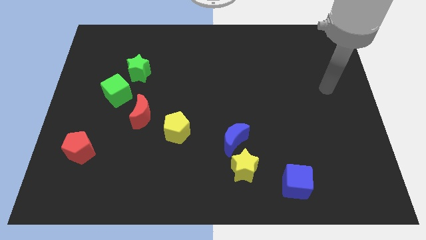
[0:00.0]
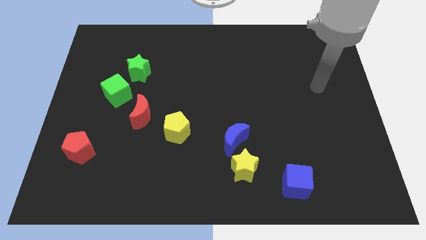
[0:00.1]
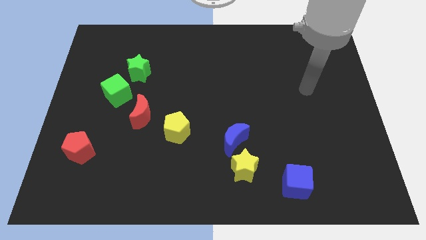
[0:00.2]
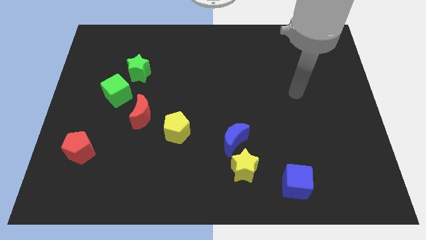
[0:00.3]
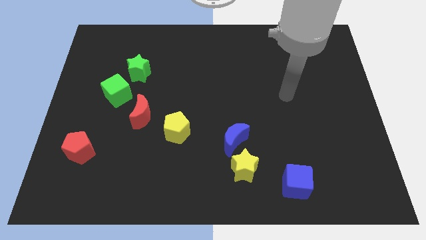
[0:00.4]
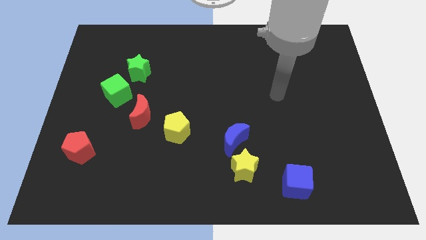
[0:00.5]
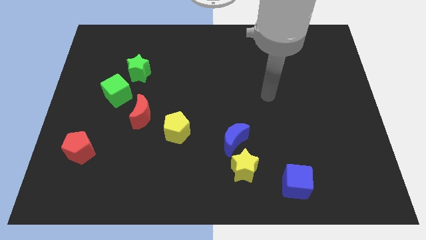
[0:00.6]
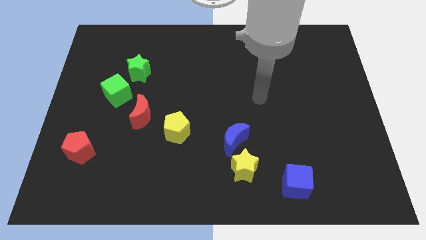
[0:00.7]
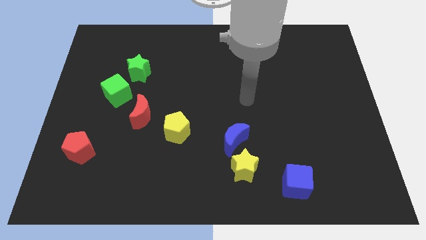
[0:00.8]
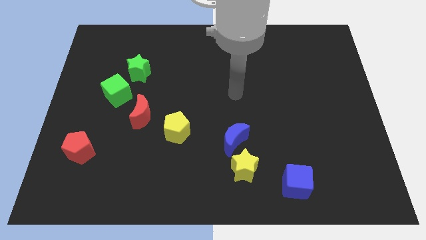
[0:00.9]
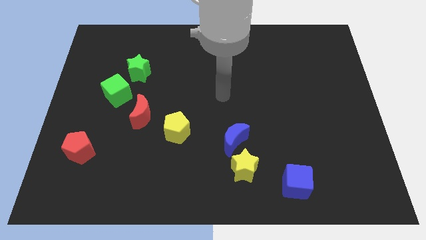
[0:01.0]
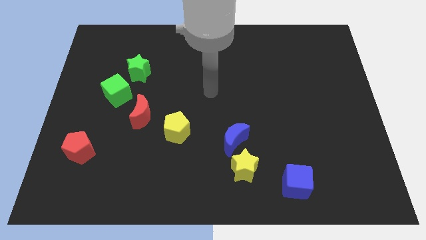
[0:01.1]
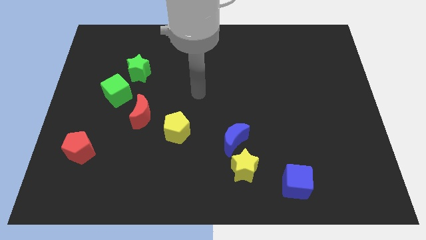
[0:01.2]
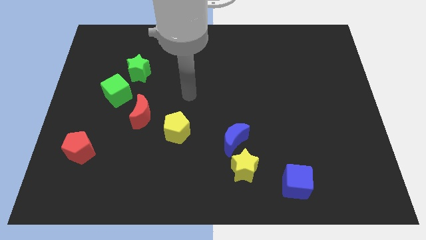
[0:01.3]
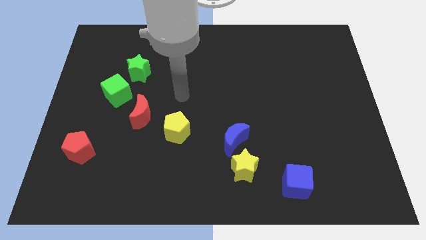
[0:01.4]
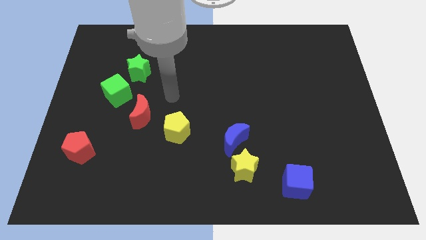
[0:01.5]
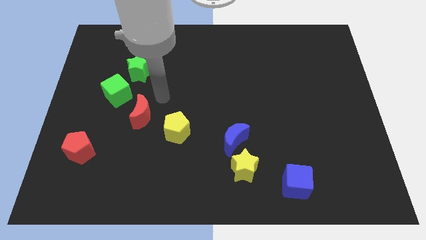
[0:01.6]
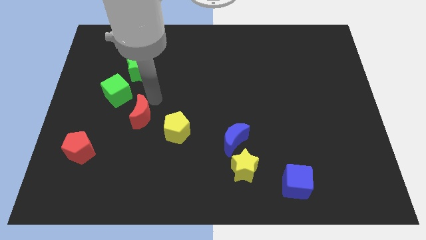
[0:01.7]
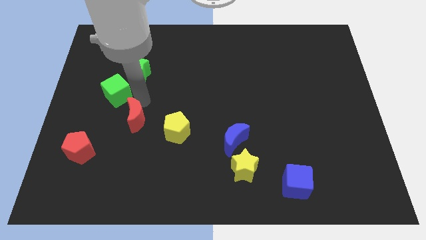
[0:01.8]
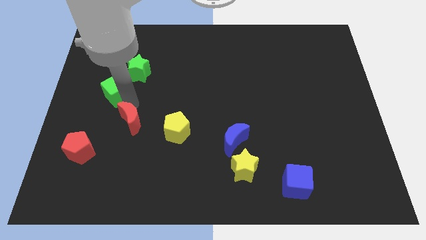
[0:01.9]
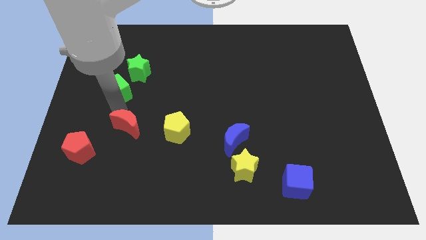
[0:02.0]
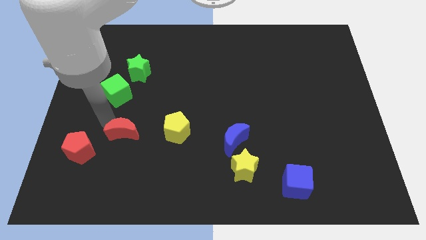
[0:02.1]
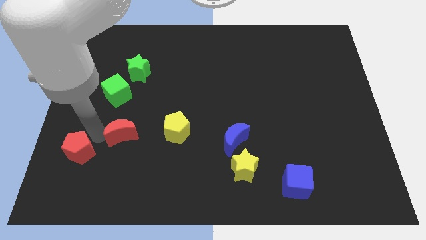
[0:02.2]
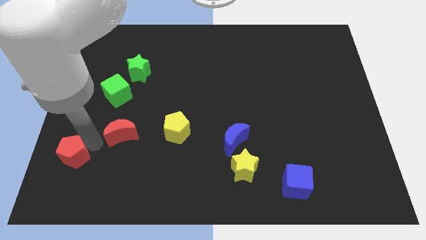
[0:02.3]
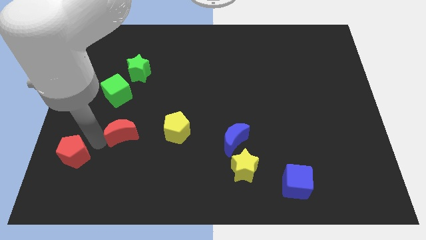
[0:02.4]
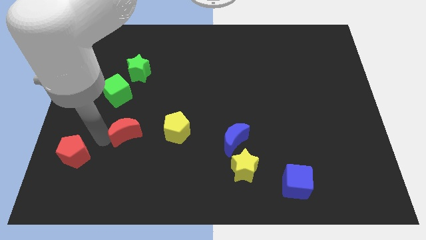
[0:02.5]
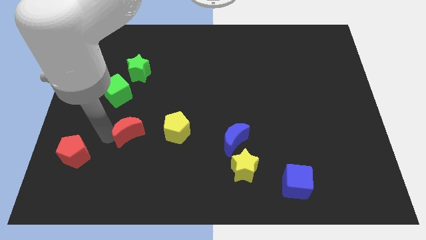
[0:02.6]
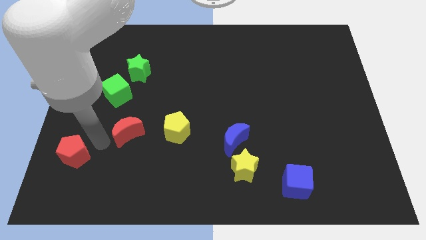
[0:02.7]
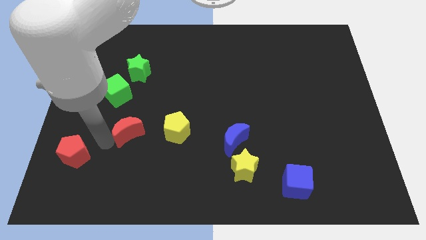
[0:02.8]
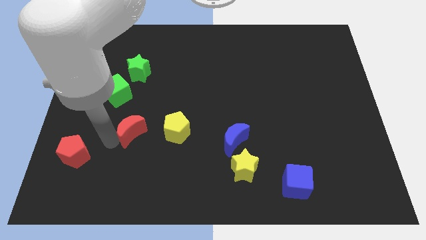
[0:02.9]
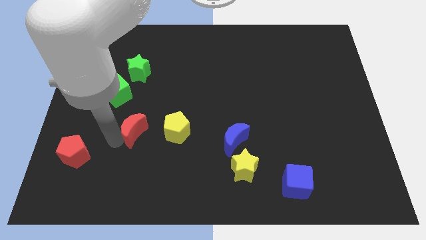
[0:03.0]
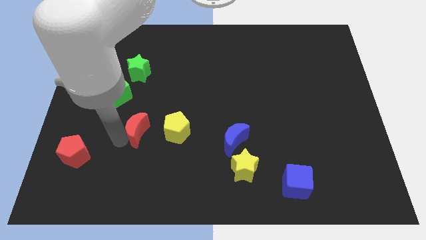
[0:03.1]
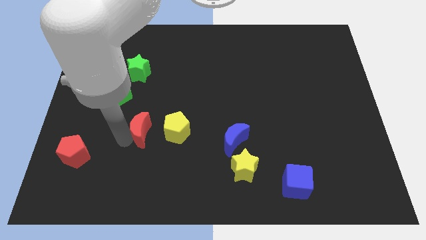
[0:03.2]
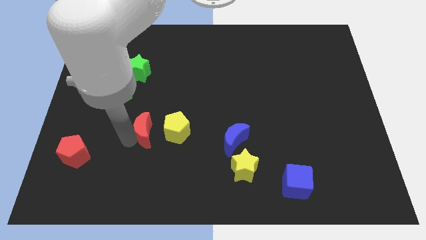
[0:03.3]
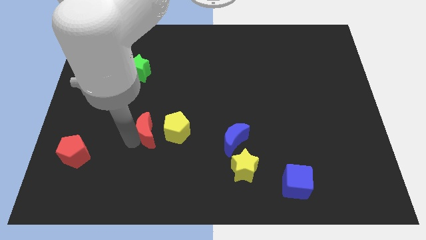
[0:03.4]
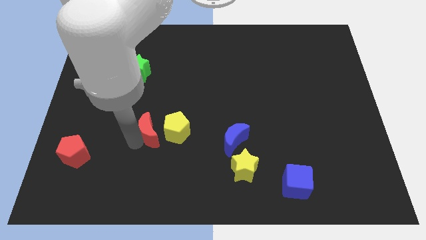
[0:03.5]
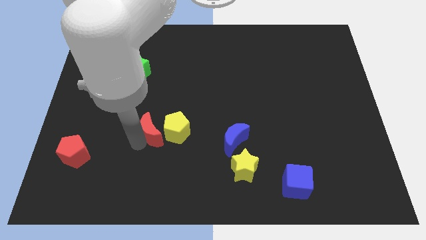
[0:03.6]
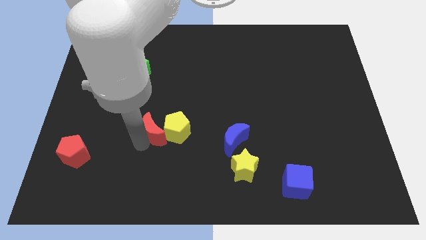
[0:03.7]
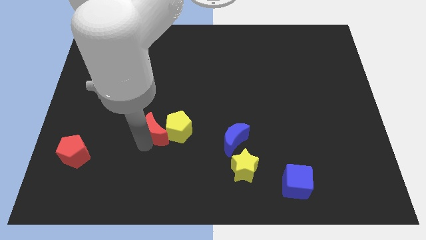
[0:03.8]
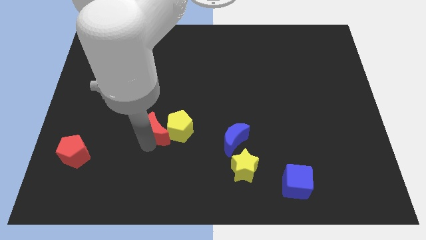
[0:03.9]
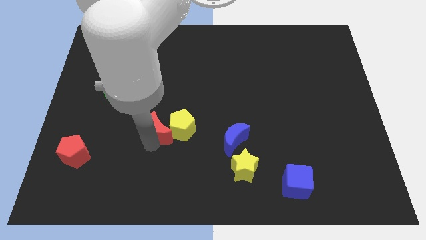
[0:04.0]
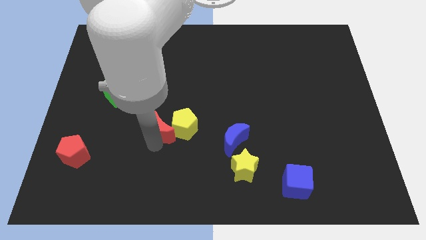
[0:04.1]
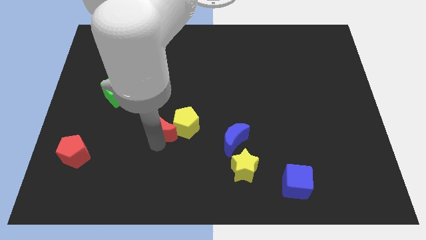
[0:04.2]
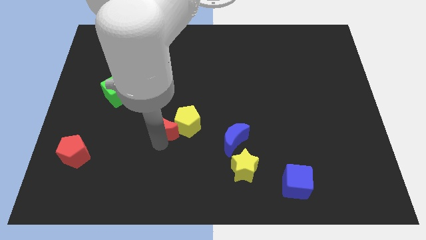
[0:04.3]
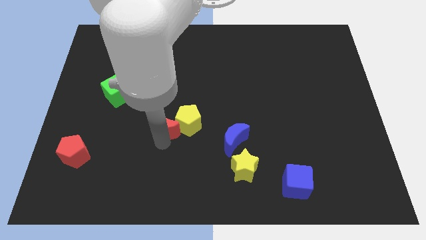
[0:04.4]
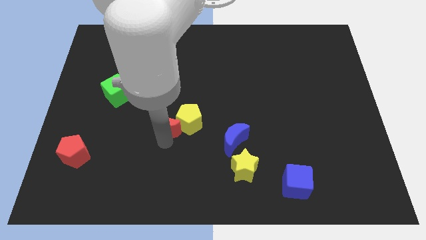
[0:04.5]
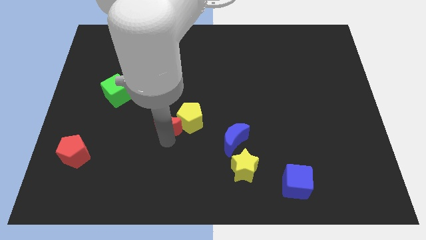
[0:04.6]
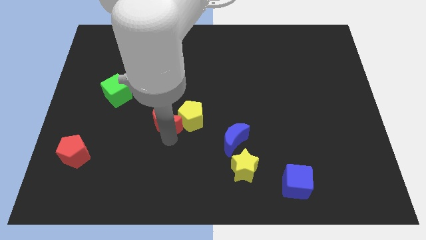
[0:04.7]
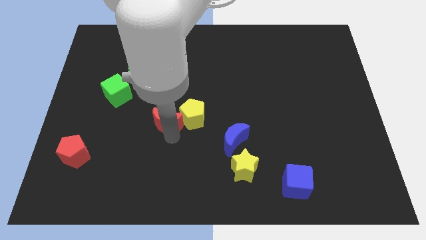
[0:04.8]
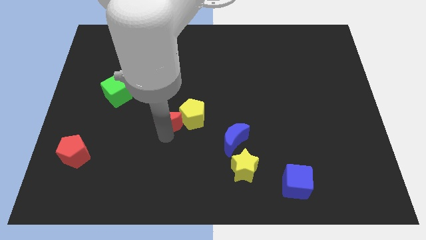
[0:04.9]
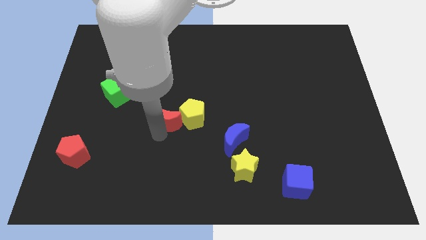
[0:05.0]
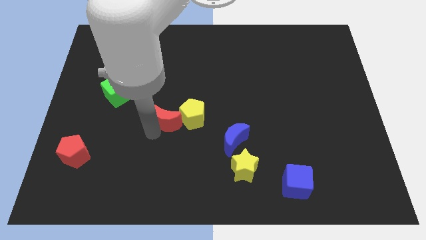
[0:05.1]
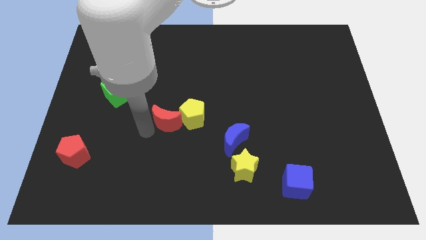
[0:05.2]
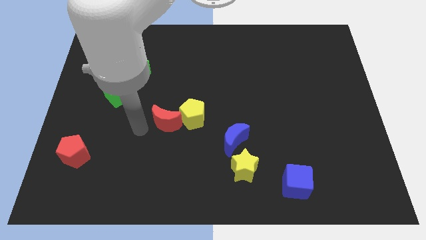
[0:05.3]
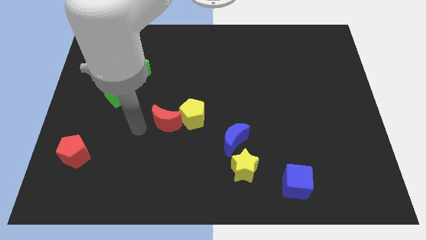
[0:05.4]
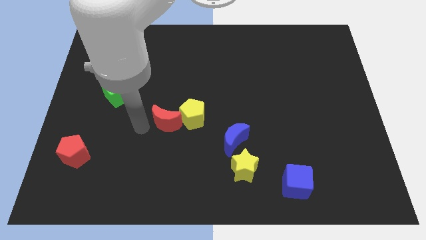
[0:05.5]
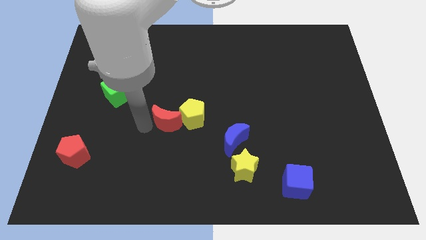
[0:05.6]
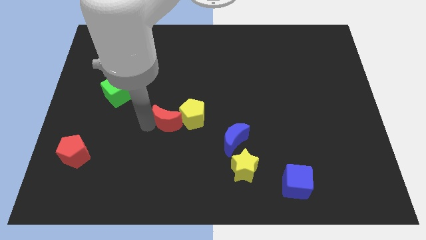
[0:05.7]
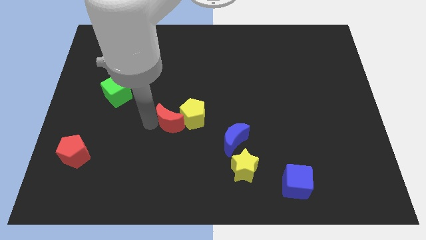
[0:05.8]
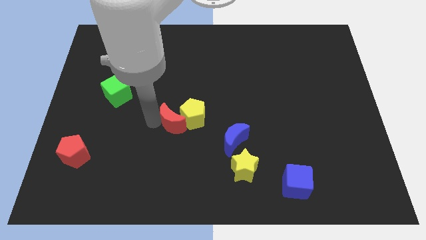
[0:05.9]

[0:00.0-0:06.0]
slightly push the red moon right

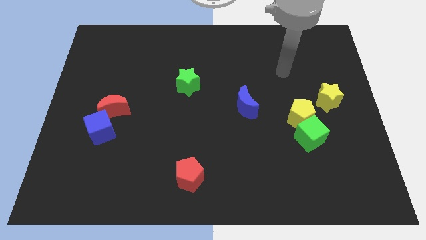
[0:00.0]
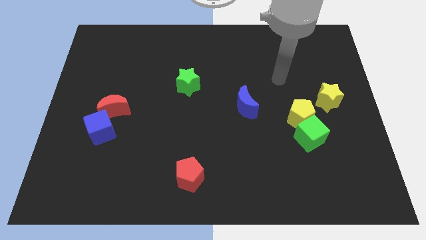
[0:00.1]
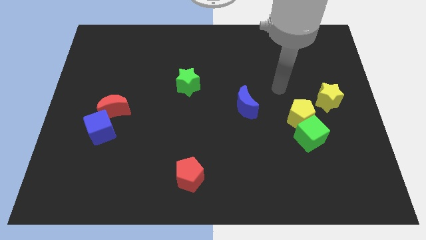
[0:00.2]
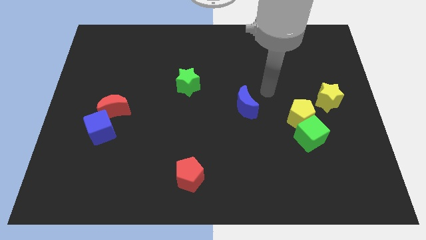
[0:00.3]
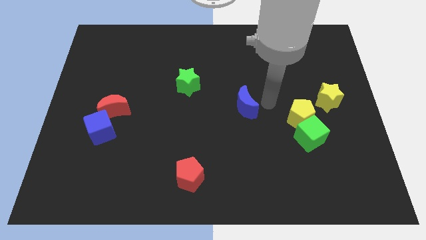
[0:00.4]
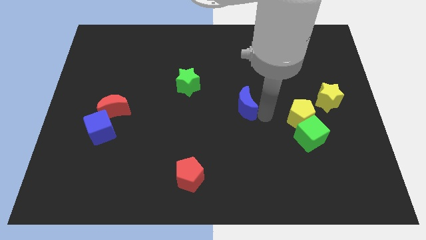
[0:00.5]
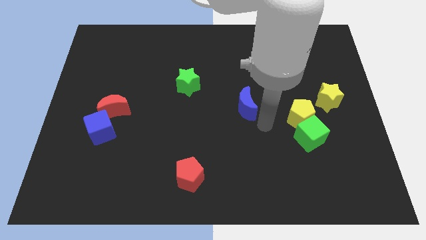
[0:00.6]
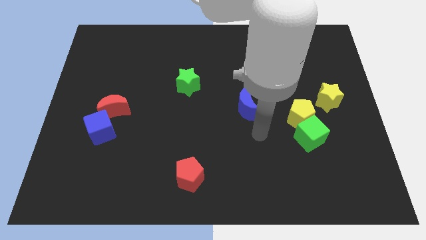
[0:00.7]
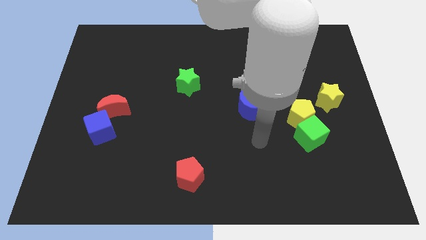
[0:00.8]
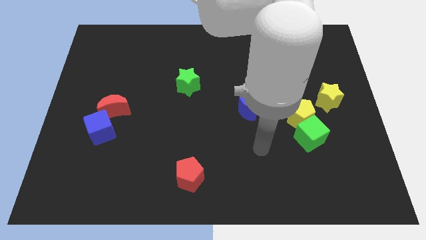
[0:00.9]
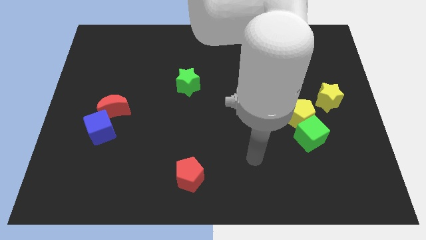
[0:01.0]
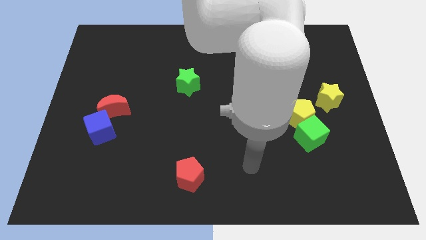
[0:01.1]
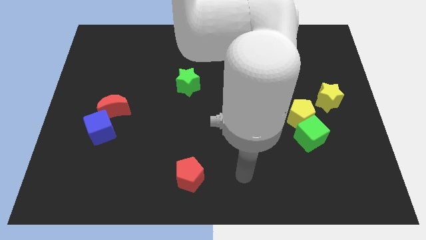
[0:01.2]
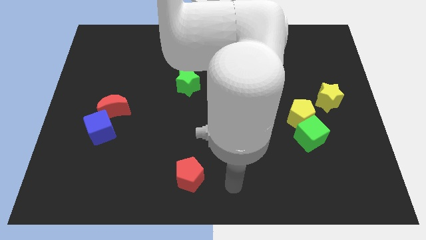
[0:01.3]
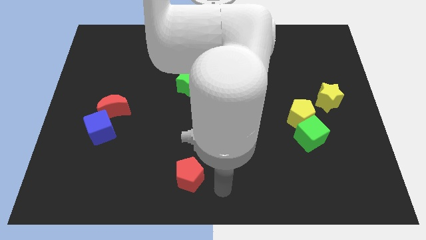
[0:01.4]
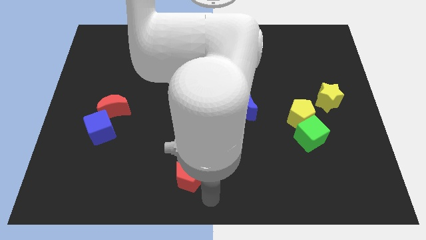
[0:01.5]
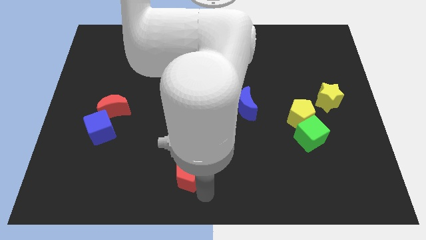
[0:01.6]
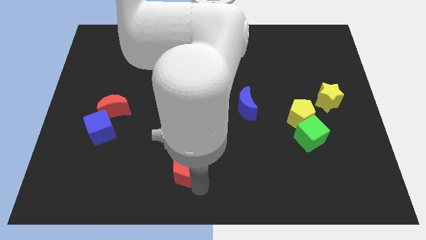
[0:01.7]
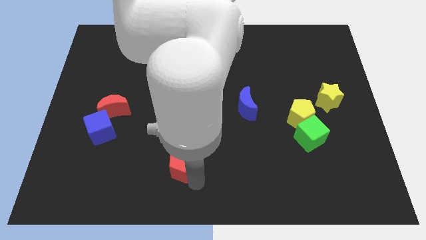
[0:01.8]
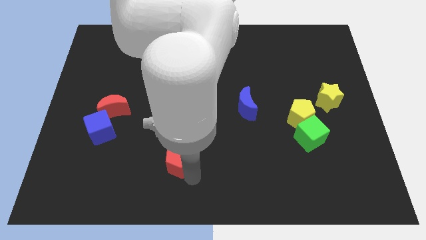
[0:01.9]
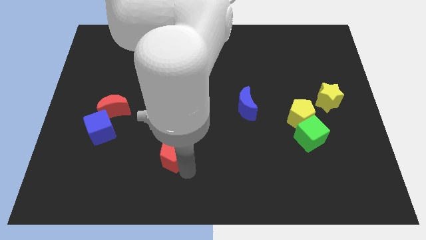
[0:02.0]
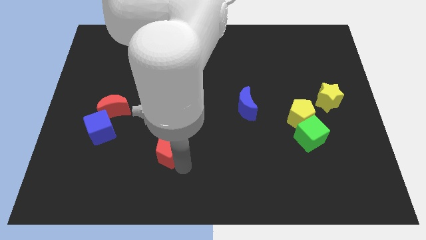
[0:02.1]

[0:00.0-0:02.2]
move the red pentagon a little up and left diagonally
